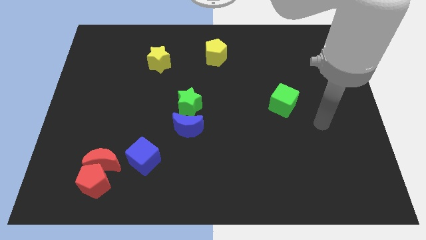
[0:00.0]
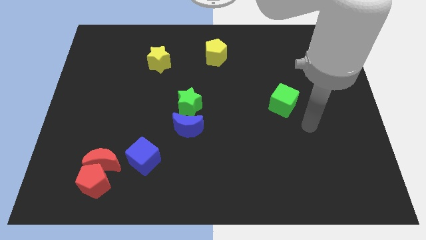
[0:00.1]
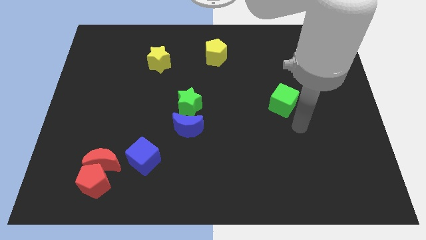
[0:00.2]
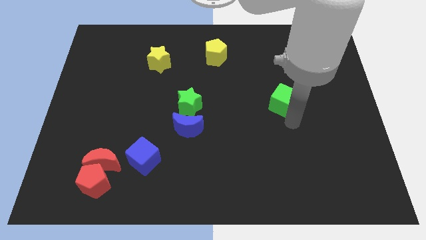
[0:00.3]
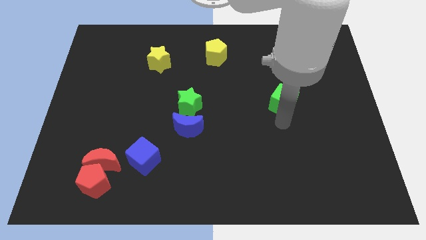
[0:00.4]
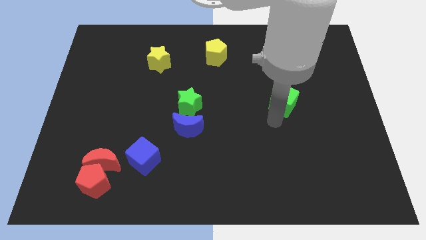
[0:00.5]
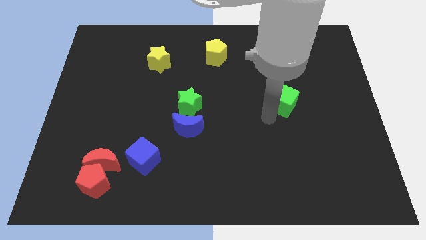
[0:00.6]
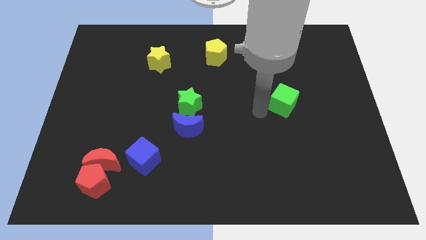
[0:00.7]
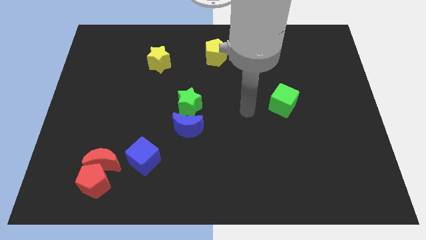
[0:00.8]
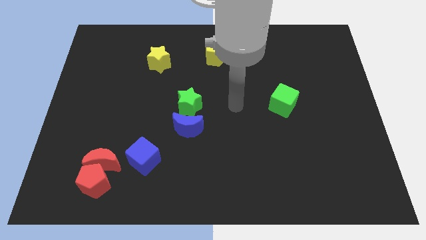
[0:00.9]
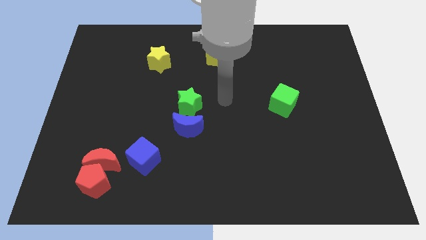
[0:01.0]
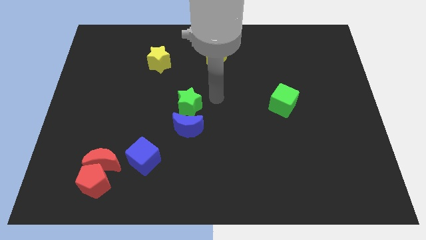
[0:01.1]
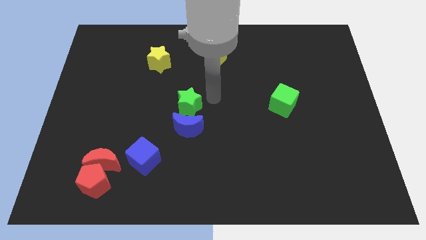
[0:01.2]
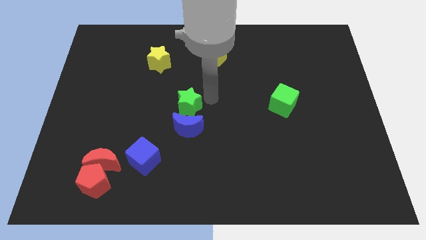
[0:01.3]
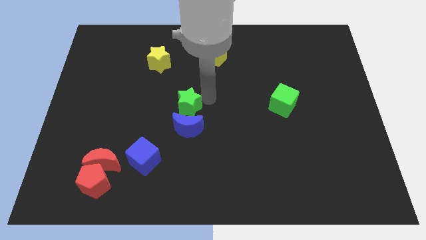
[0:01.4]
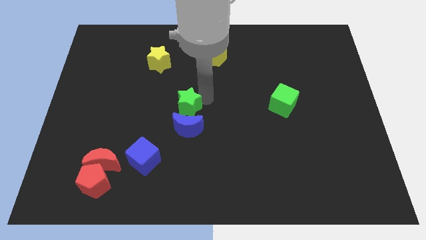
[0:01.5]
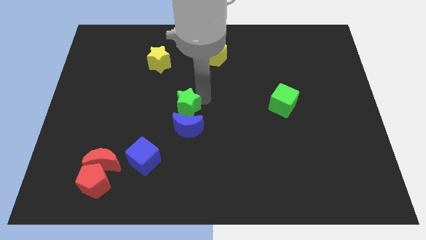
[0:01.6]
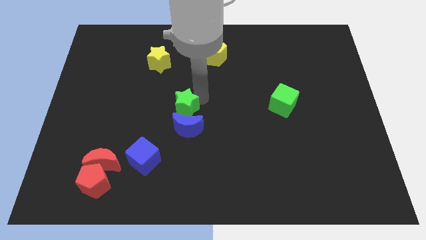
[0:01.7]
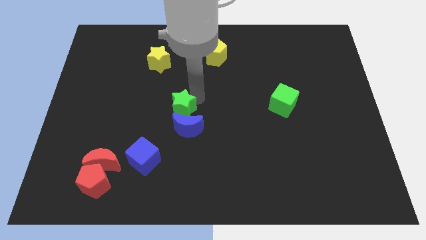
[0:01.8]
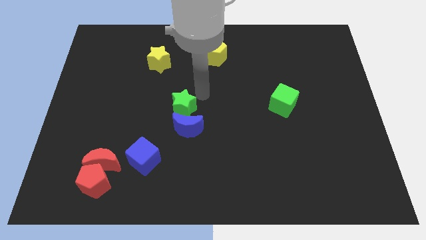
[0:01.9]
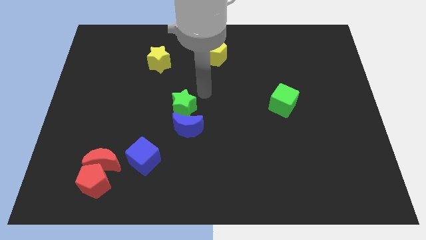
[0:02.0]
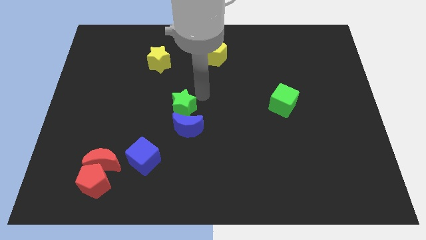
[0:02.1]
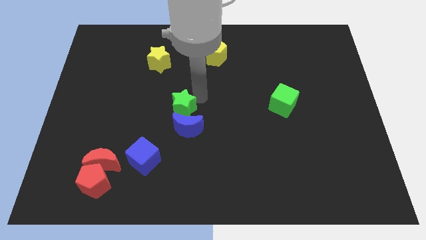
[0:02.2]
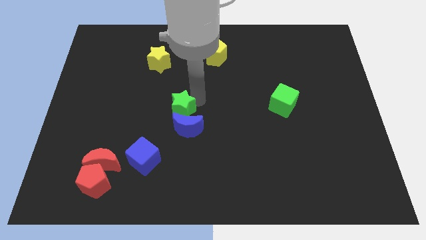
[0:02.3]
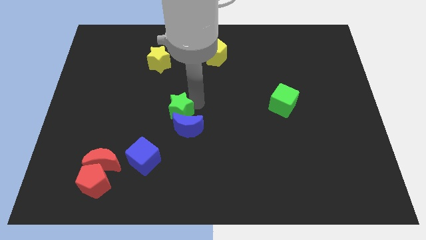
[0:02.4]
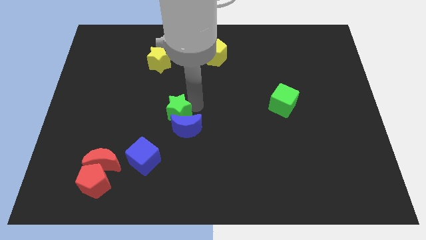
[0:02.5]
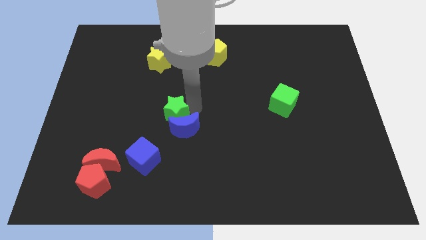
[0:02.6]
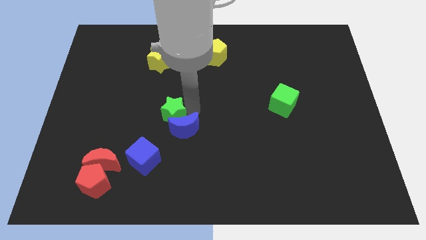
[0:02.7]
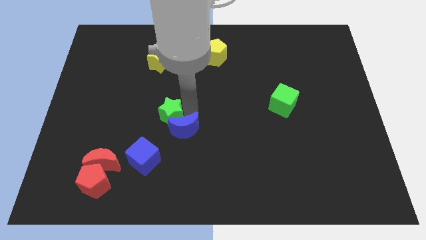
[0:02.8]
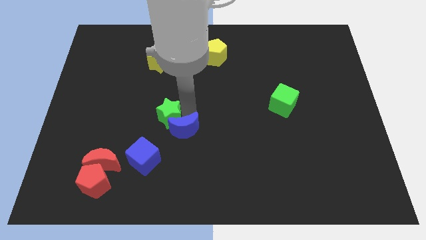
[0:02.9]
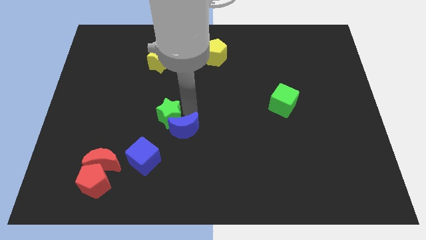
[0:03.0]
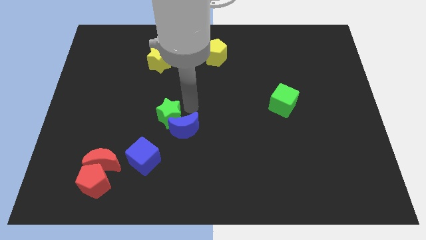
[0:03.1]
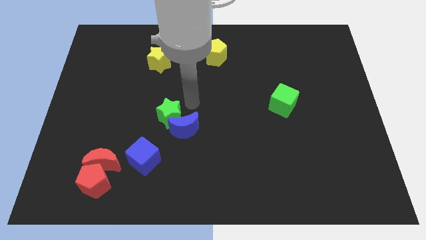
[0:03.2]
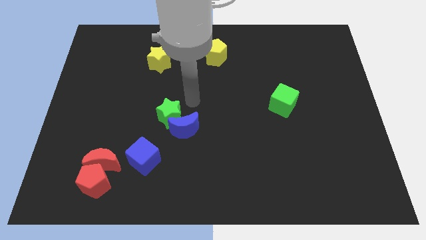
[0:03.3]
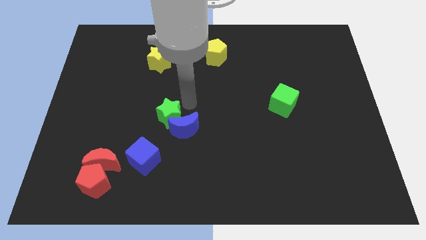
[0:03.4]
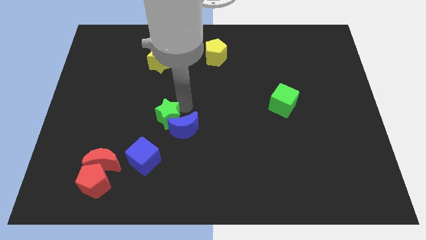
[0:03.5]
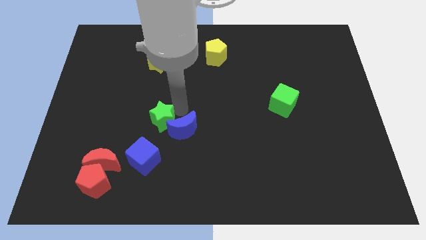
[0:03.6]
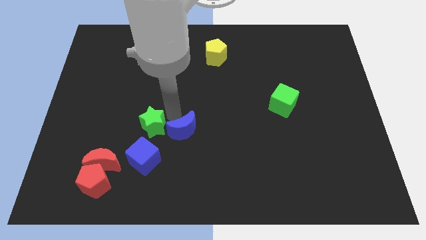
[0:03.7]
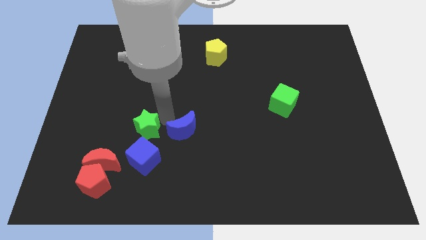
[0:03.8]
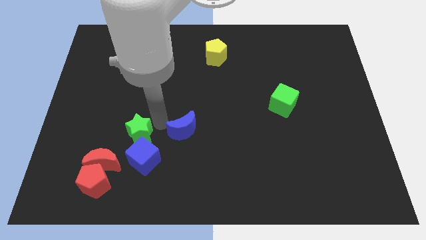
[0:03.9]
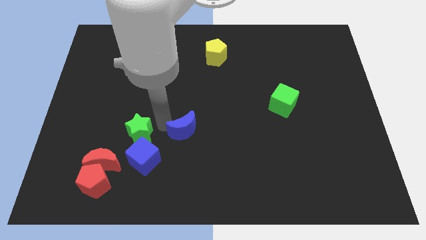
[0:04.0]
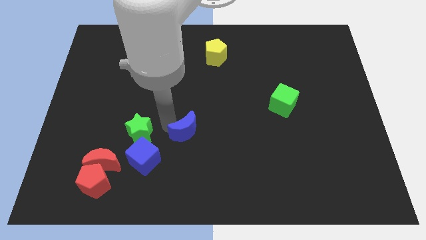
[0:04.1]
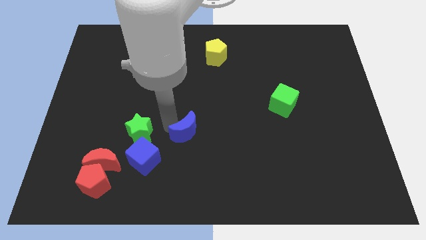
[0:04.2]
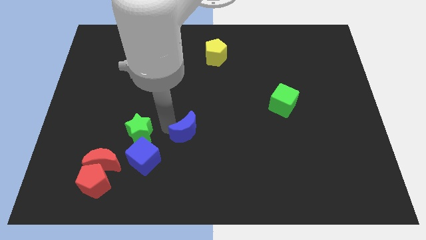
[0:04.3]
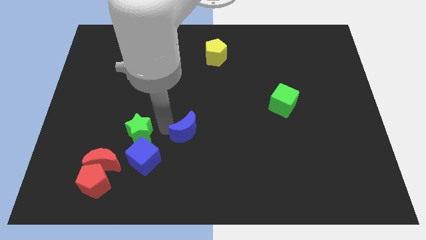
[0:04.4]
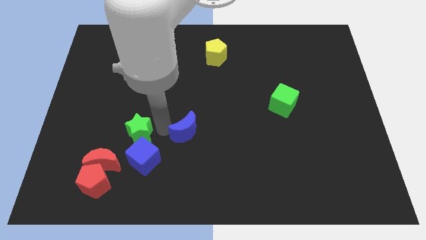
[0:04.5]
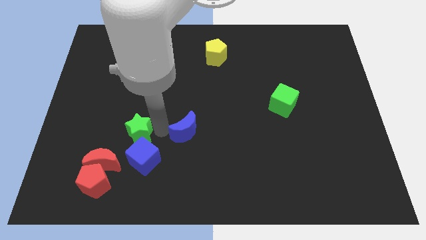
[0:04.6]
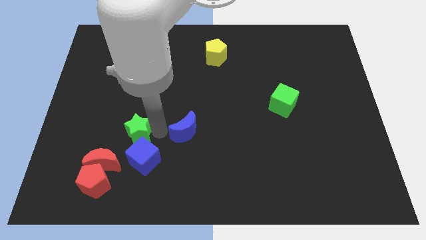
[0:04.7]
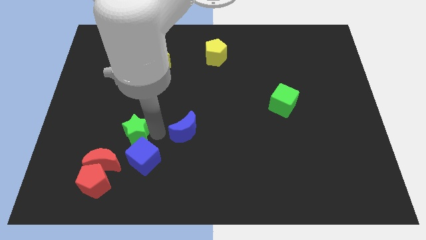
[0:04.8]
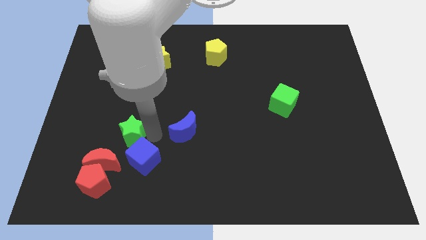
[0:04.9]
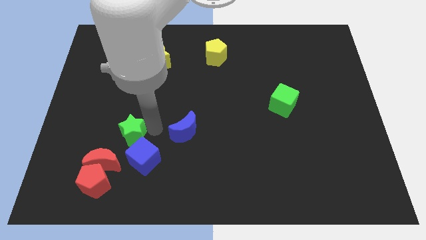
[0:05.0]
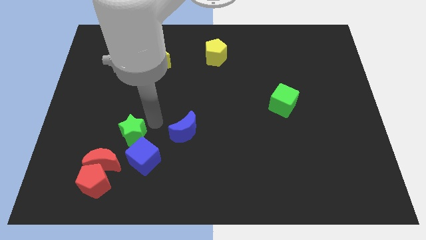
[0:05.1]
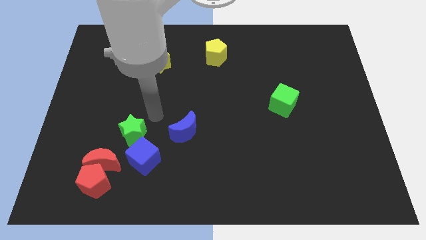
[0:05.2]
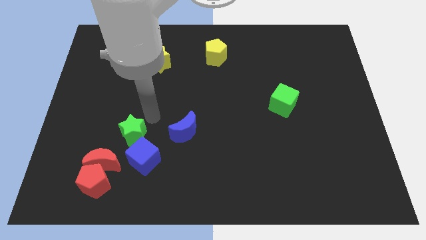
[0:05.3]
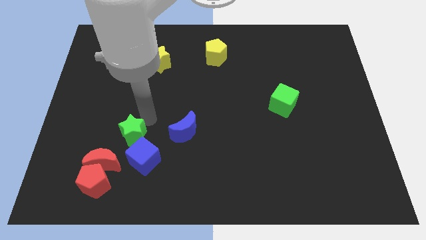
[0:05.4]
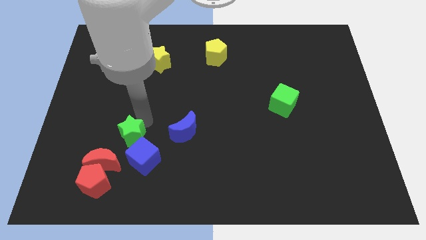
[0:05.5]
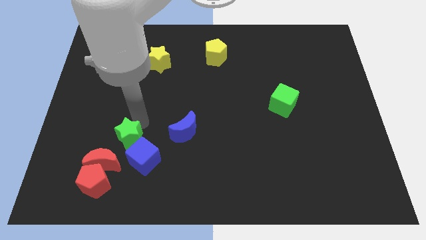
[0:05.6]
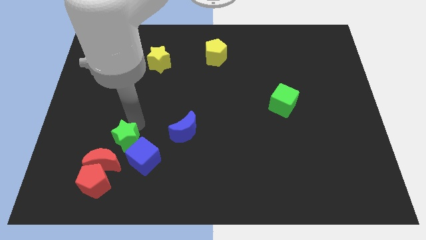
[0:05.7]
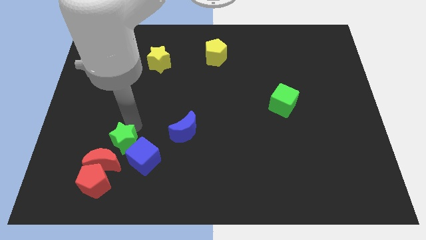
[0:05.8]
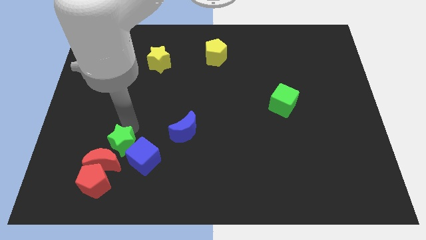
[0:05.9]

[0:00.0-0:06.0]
slide the green star to the red moon
